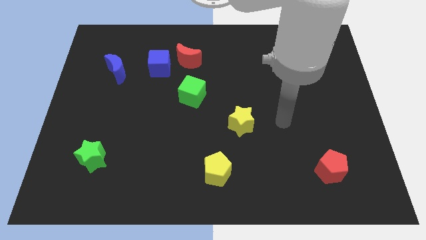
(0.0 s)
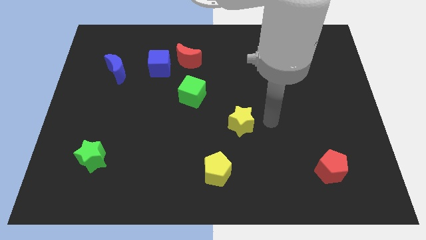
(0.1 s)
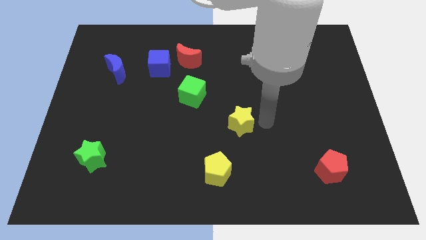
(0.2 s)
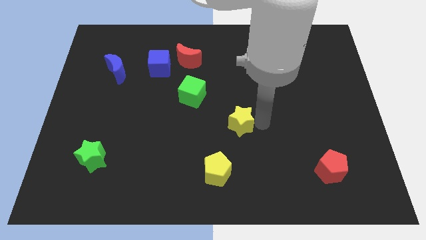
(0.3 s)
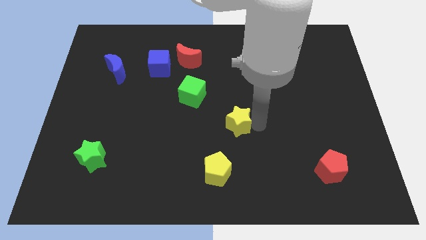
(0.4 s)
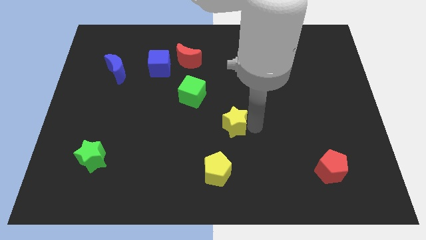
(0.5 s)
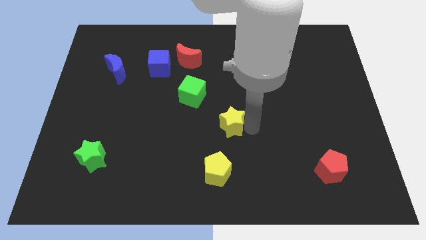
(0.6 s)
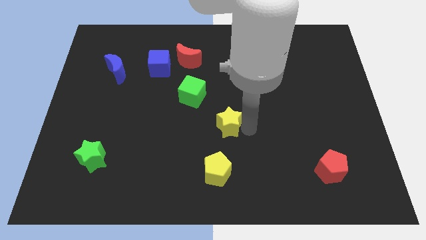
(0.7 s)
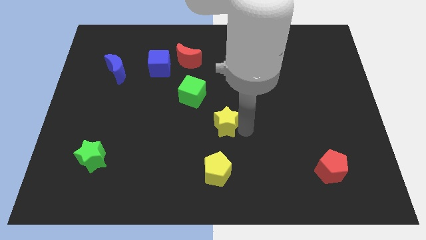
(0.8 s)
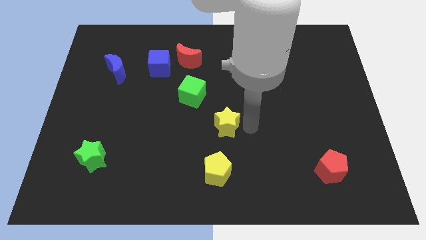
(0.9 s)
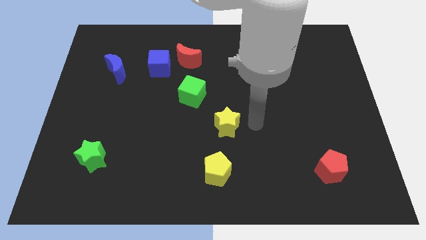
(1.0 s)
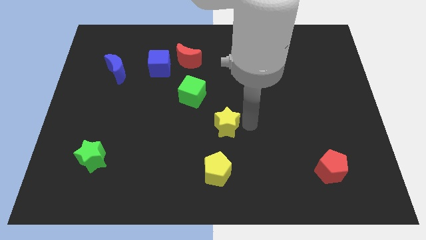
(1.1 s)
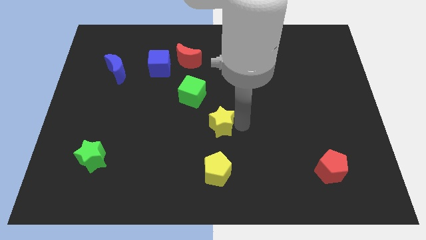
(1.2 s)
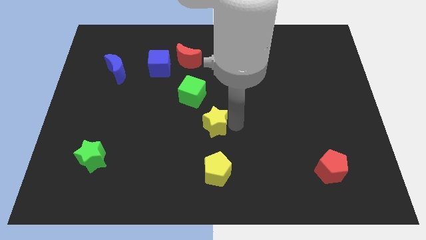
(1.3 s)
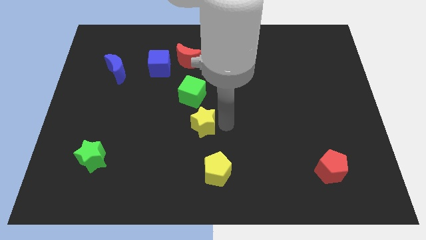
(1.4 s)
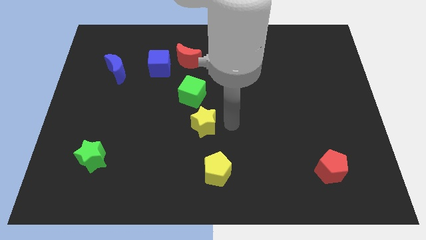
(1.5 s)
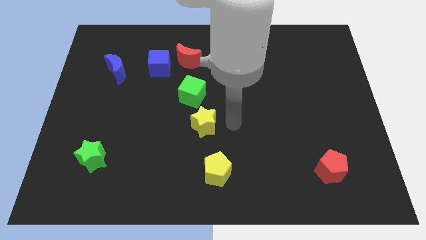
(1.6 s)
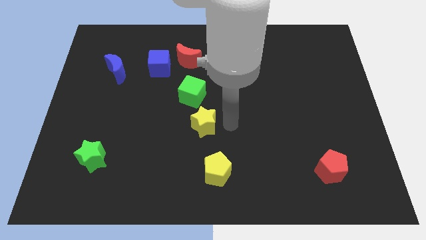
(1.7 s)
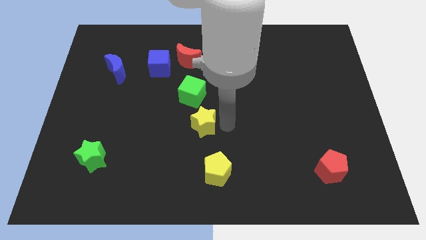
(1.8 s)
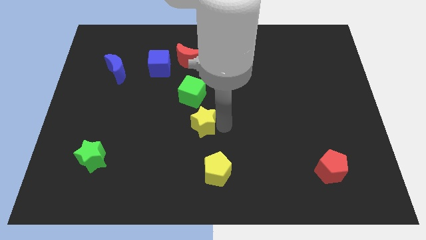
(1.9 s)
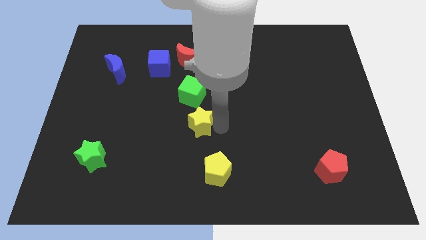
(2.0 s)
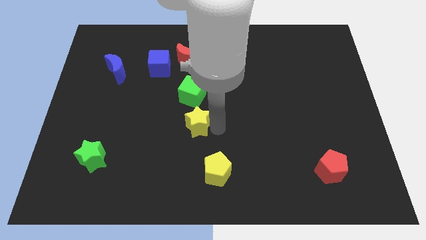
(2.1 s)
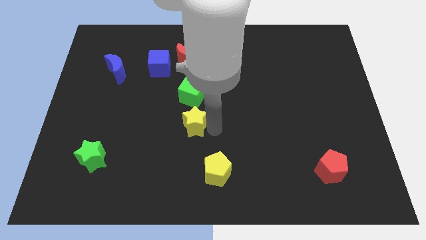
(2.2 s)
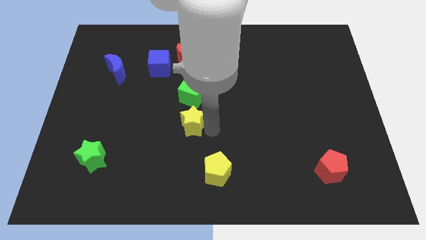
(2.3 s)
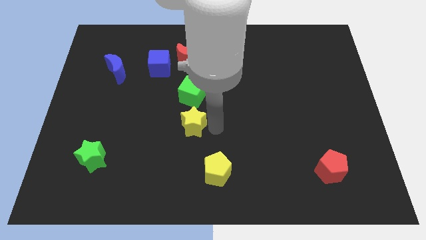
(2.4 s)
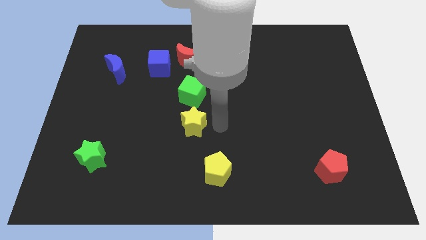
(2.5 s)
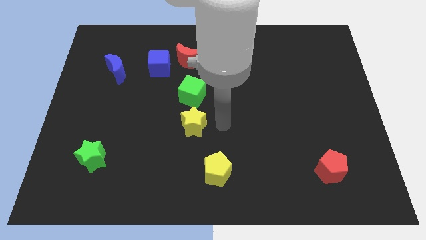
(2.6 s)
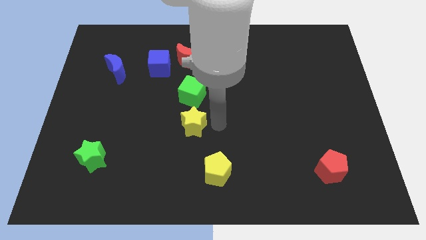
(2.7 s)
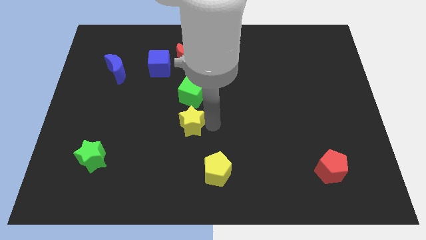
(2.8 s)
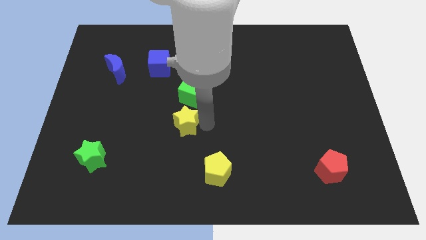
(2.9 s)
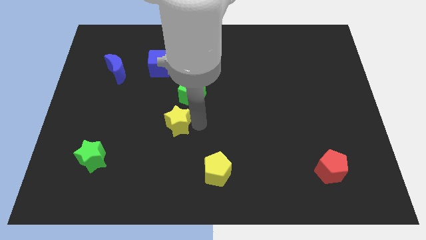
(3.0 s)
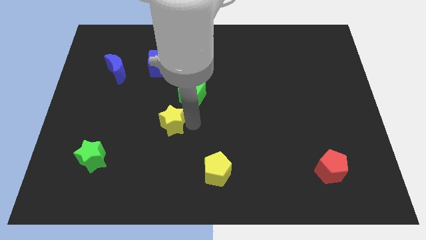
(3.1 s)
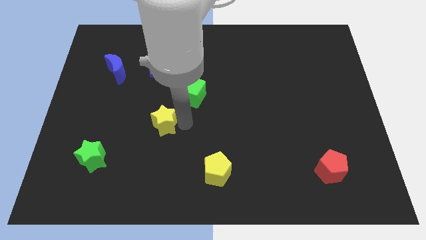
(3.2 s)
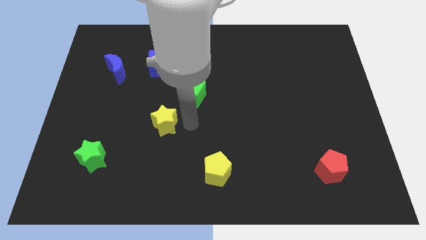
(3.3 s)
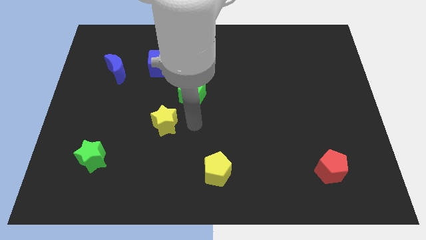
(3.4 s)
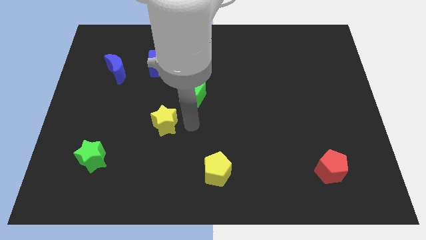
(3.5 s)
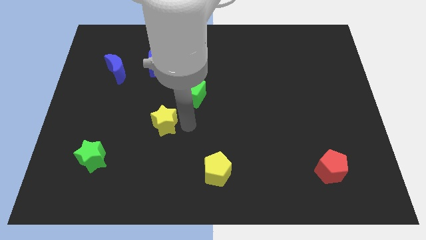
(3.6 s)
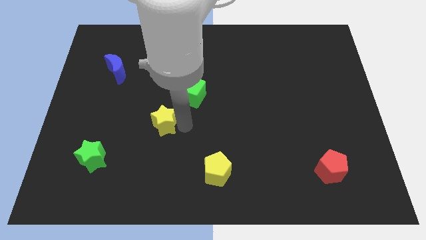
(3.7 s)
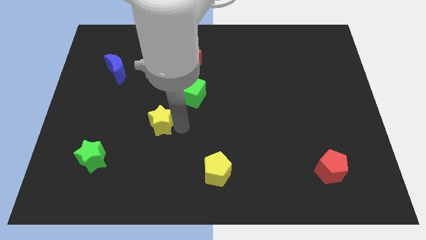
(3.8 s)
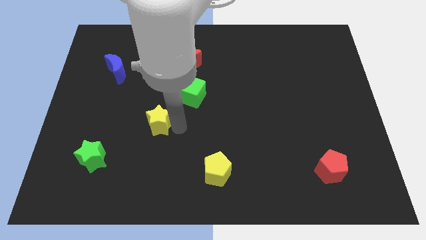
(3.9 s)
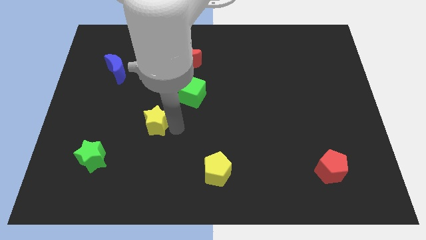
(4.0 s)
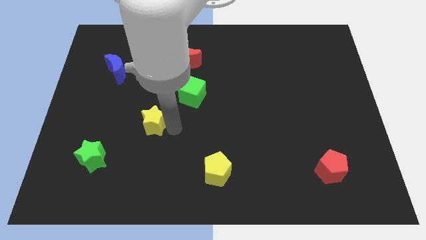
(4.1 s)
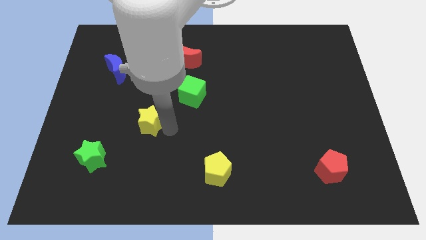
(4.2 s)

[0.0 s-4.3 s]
push the yellow star left

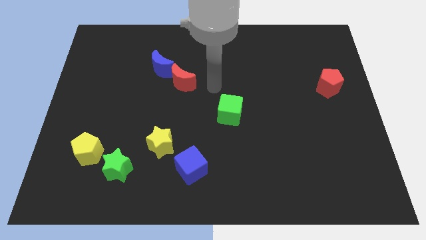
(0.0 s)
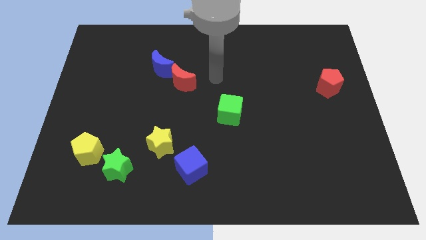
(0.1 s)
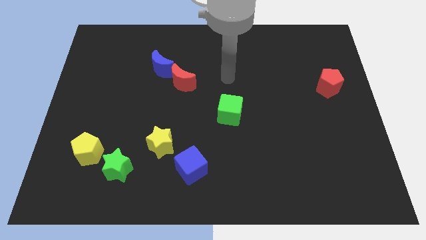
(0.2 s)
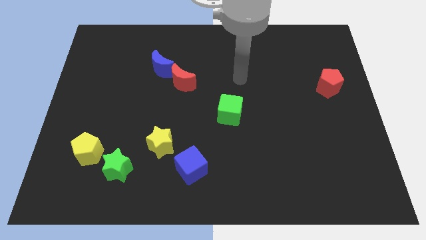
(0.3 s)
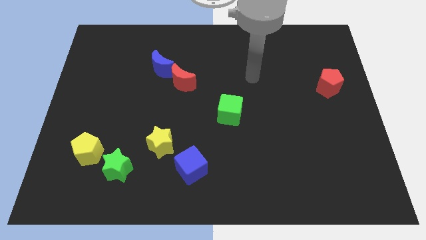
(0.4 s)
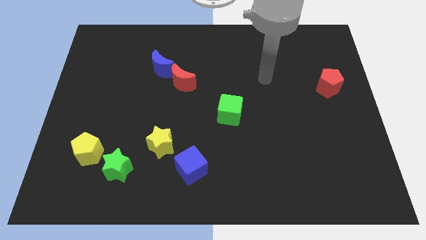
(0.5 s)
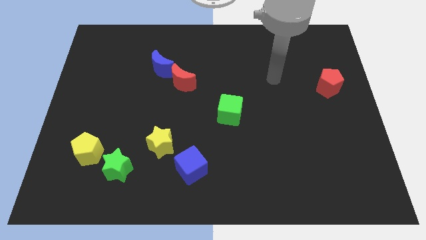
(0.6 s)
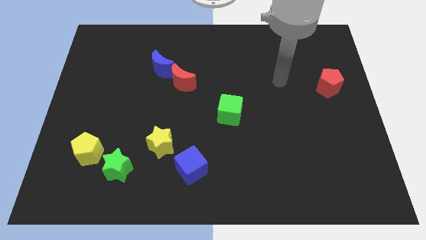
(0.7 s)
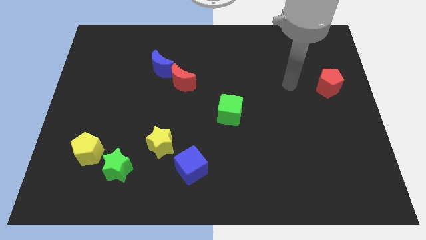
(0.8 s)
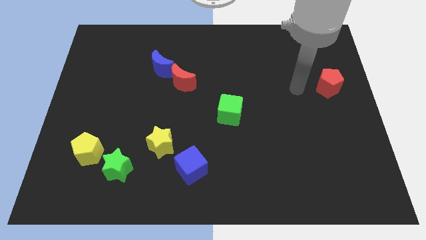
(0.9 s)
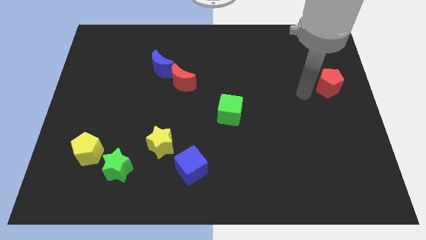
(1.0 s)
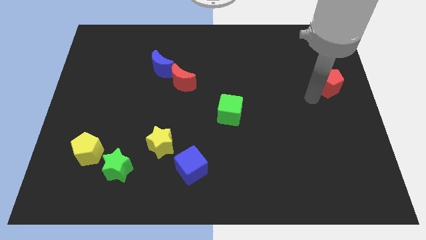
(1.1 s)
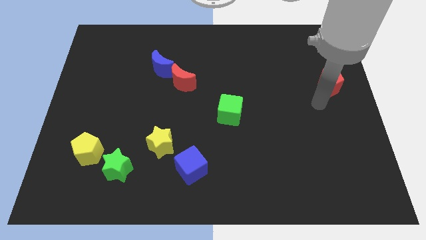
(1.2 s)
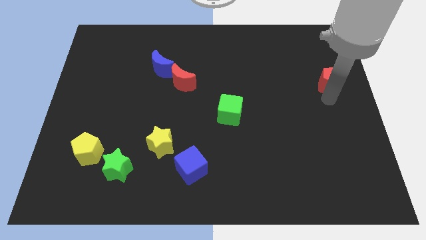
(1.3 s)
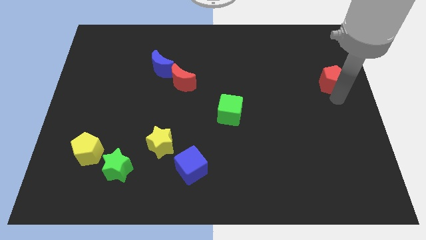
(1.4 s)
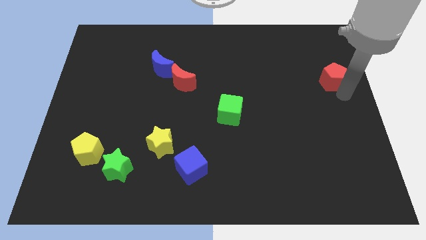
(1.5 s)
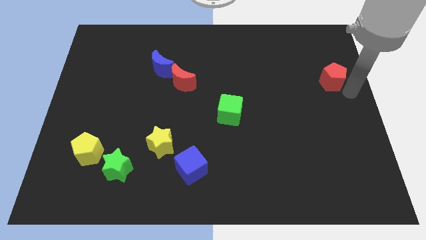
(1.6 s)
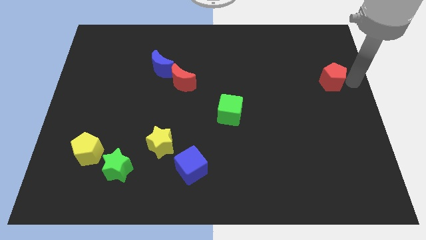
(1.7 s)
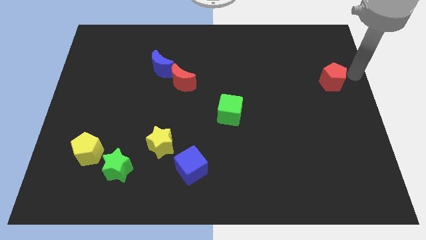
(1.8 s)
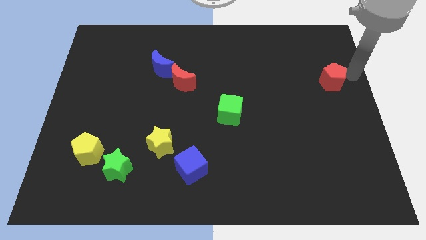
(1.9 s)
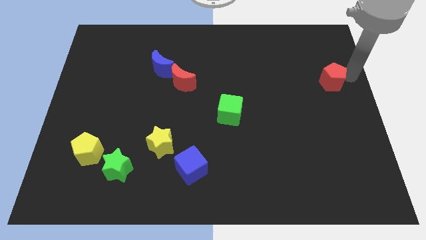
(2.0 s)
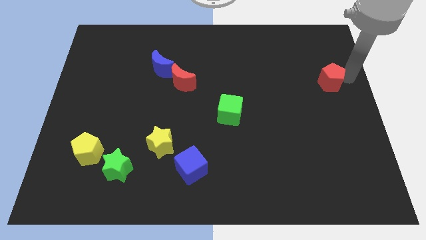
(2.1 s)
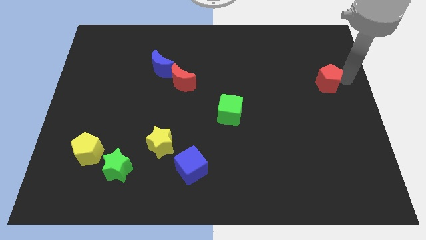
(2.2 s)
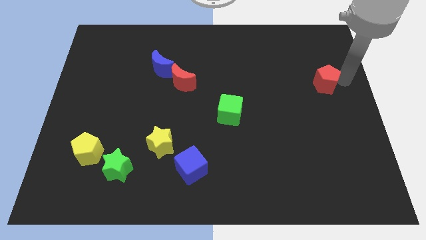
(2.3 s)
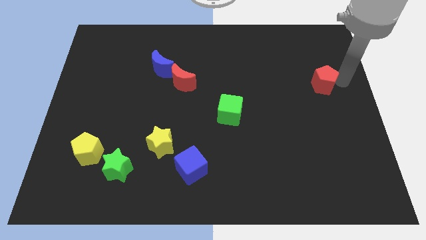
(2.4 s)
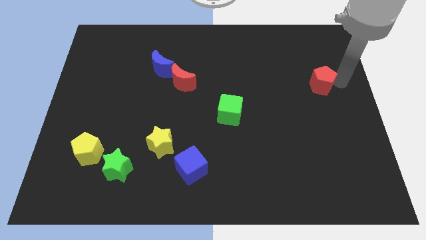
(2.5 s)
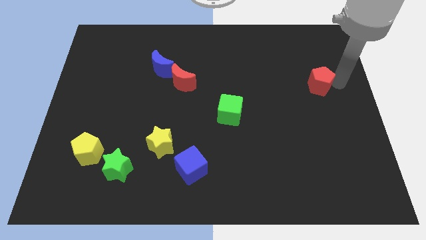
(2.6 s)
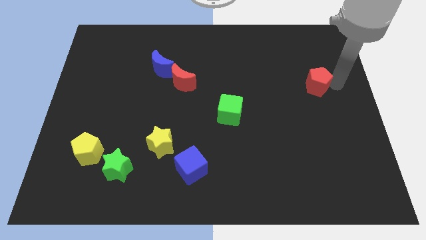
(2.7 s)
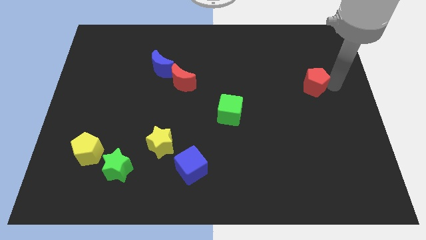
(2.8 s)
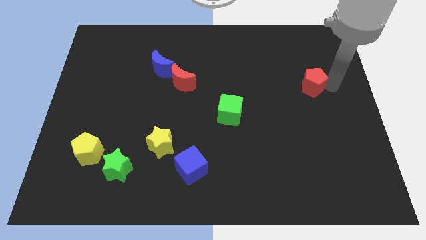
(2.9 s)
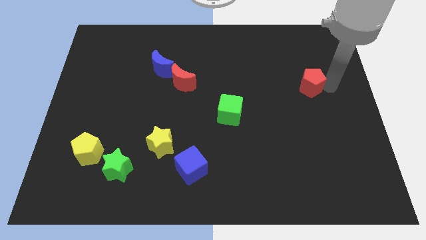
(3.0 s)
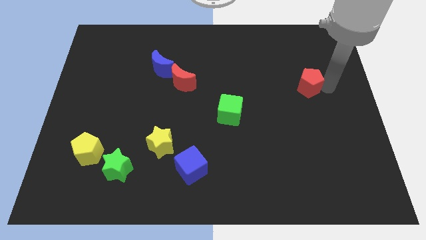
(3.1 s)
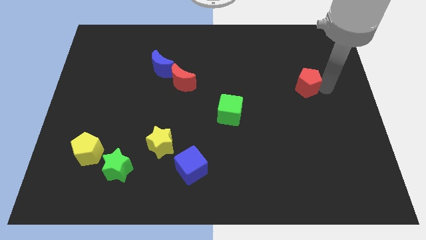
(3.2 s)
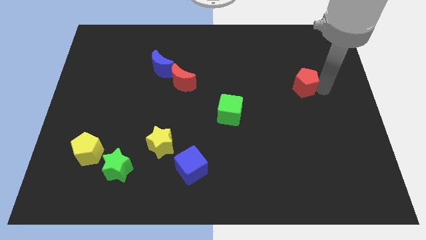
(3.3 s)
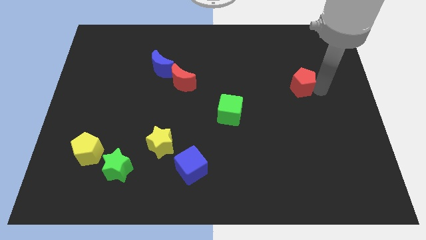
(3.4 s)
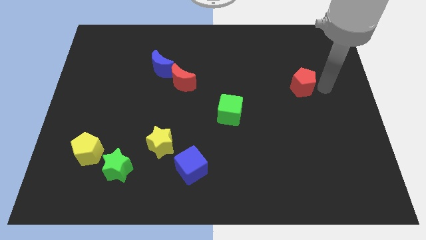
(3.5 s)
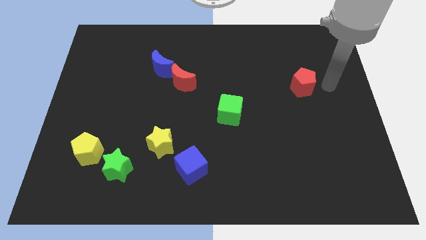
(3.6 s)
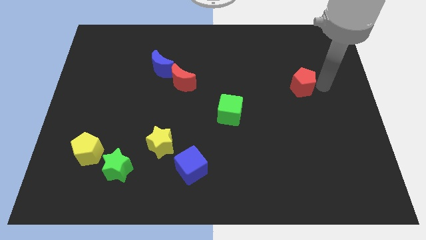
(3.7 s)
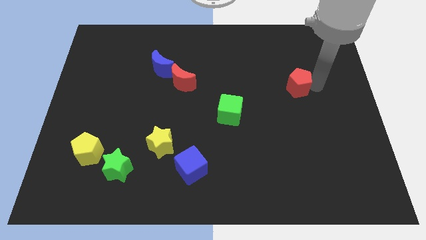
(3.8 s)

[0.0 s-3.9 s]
slide the red pentagon left a bit

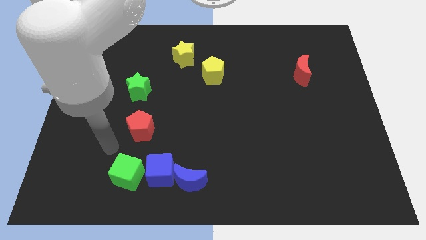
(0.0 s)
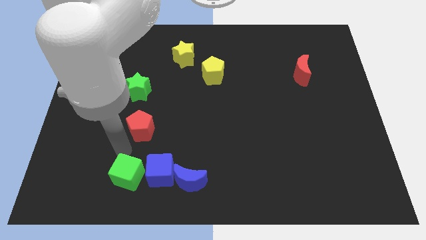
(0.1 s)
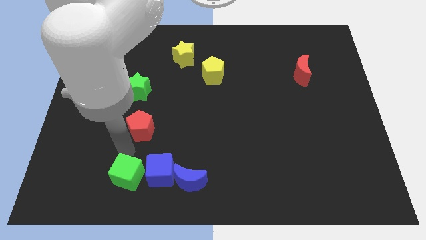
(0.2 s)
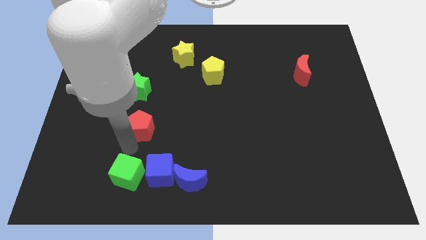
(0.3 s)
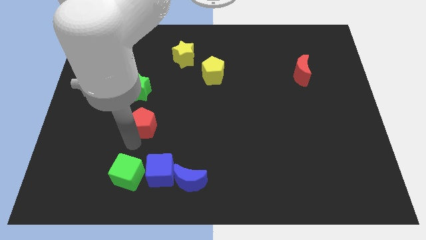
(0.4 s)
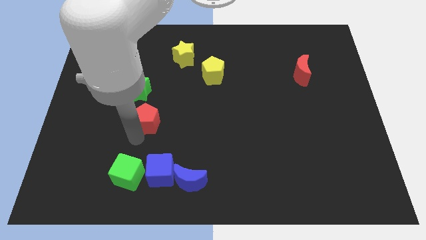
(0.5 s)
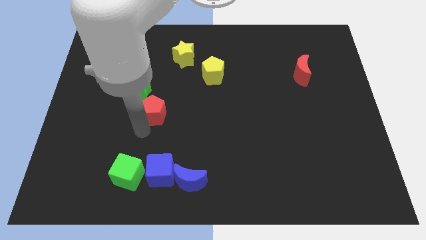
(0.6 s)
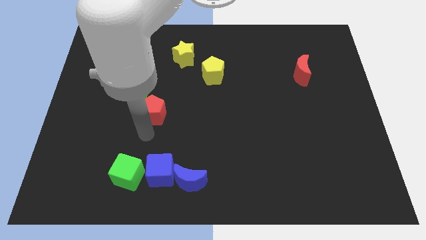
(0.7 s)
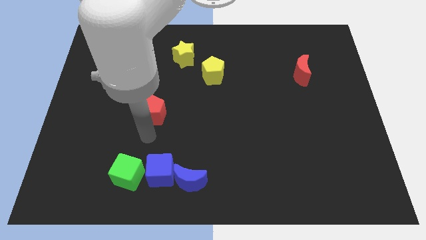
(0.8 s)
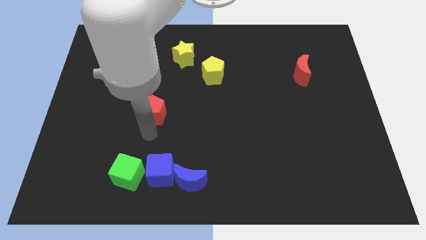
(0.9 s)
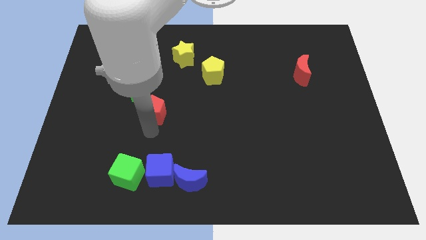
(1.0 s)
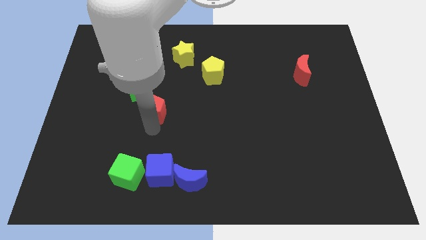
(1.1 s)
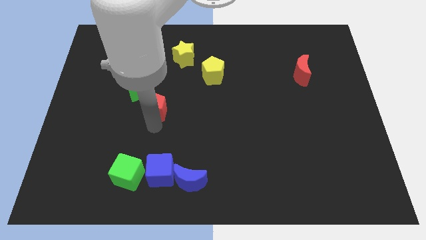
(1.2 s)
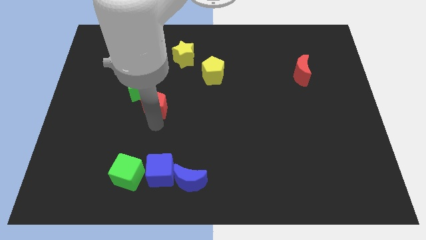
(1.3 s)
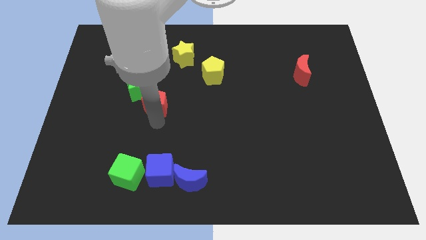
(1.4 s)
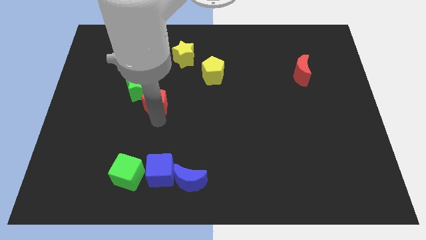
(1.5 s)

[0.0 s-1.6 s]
push the red pentagon up a little
